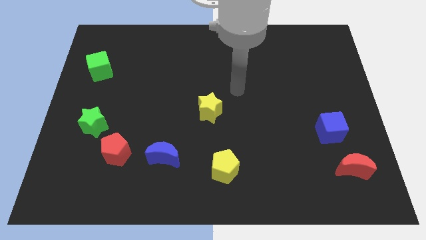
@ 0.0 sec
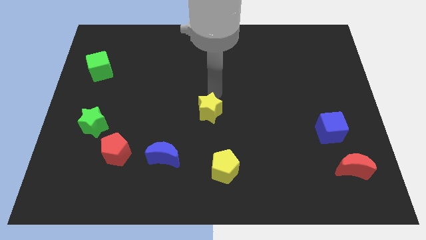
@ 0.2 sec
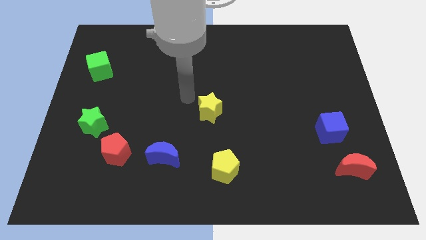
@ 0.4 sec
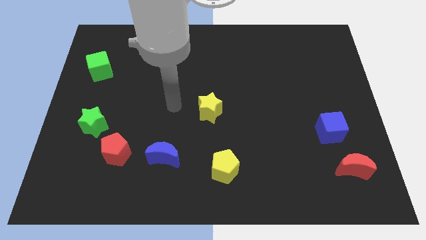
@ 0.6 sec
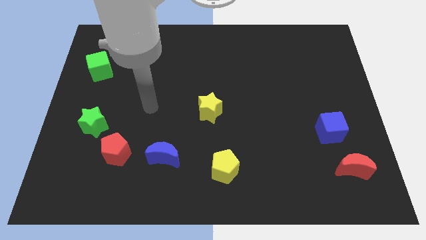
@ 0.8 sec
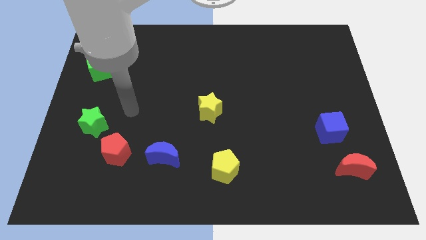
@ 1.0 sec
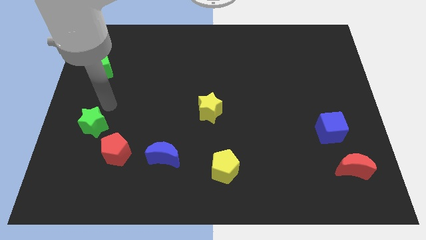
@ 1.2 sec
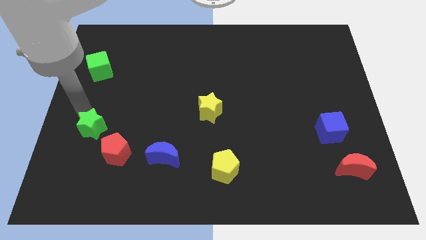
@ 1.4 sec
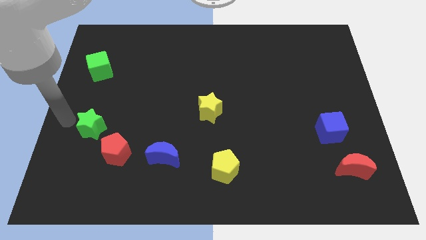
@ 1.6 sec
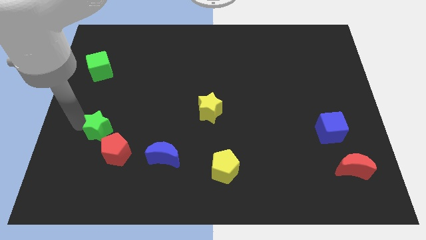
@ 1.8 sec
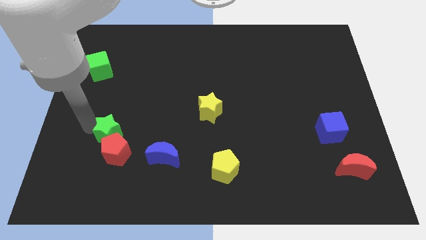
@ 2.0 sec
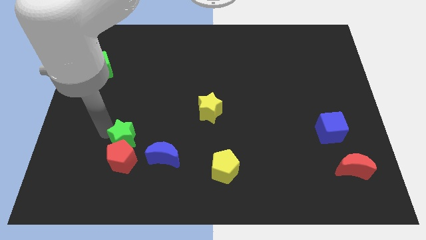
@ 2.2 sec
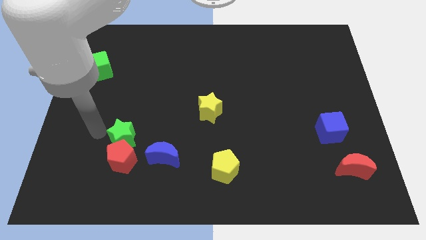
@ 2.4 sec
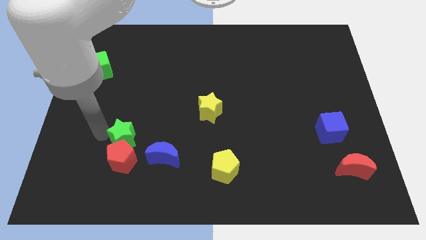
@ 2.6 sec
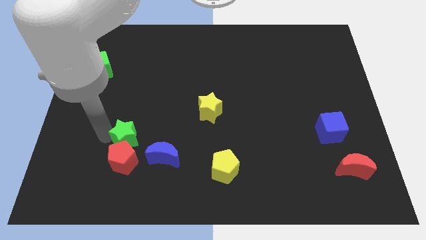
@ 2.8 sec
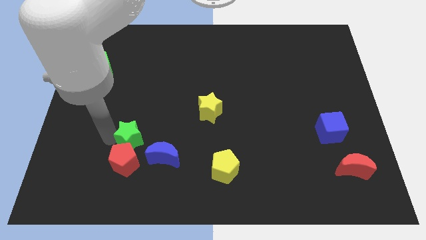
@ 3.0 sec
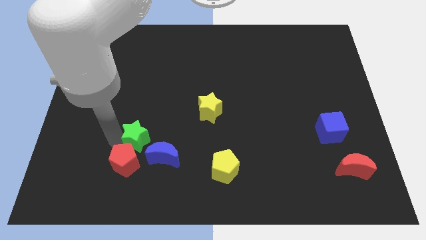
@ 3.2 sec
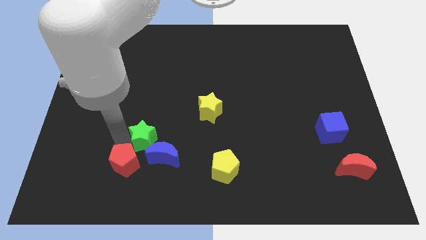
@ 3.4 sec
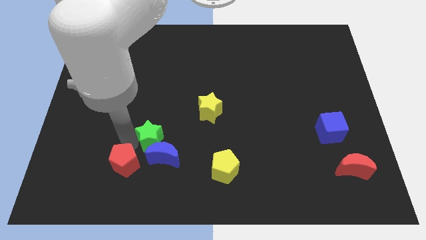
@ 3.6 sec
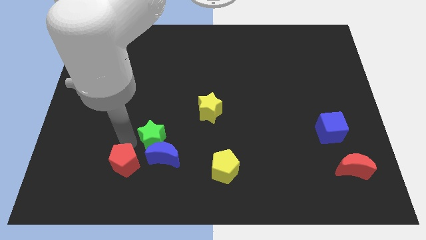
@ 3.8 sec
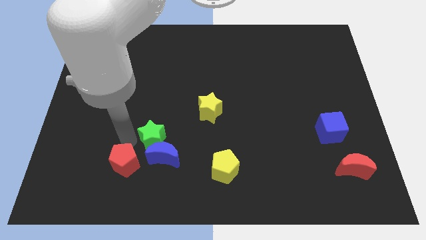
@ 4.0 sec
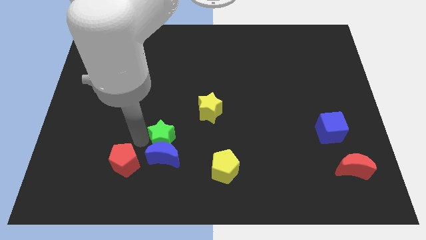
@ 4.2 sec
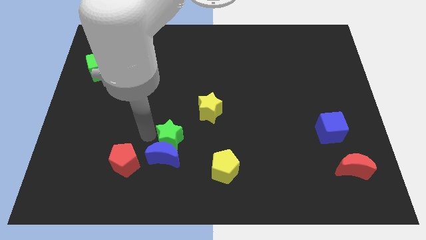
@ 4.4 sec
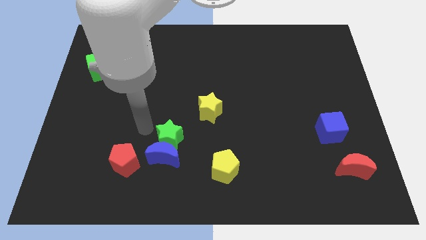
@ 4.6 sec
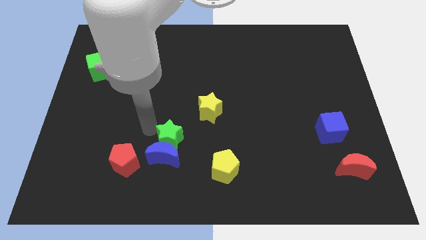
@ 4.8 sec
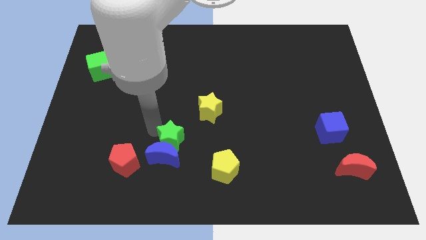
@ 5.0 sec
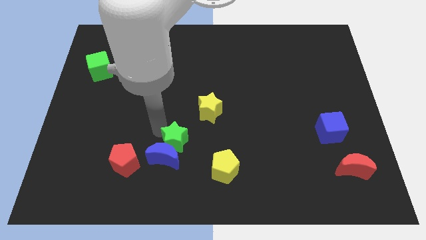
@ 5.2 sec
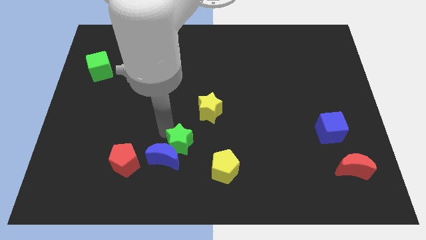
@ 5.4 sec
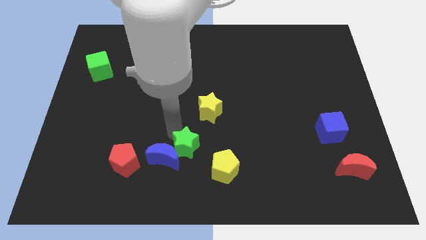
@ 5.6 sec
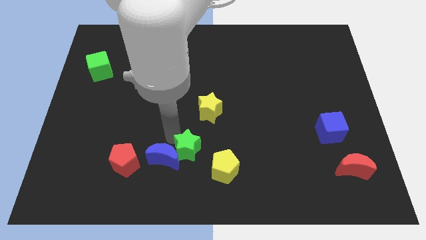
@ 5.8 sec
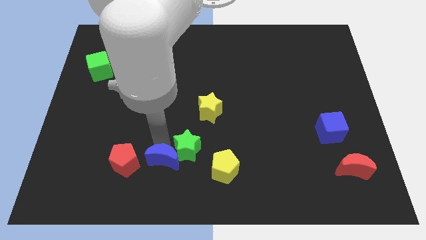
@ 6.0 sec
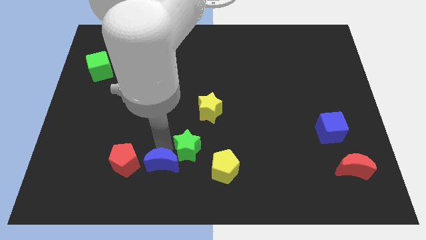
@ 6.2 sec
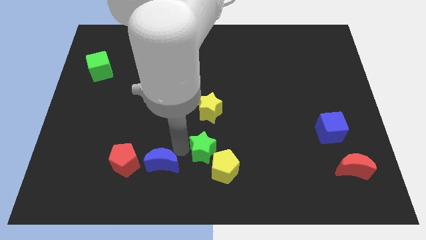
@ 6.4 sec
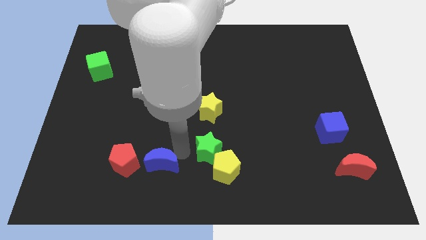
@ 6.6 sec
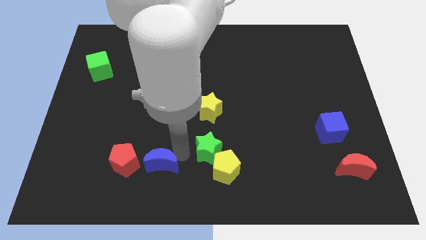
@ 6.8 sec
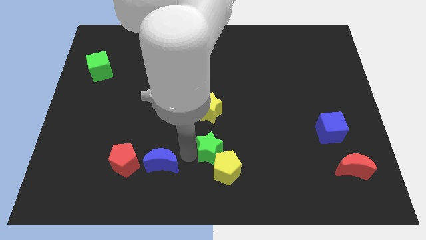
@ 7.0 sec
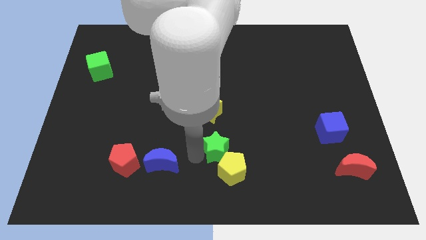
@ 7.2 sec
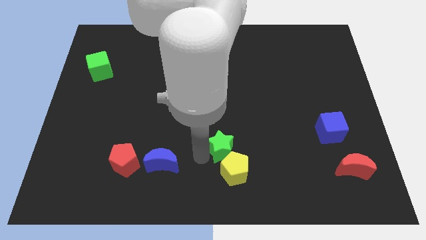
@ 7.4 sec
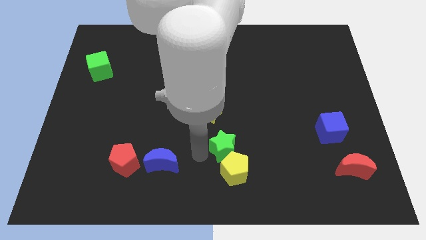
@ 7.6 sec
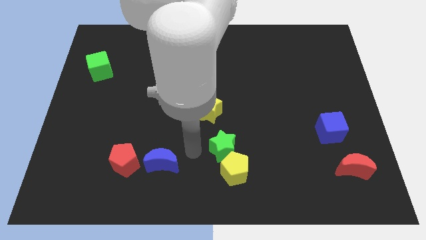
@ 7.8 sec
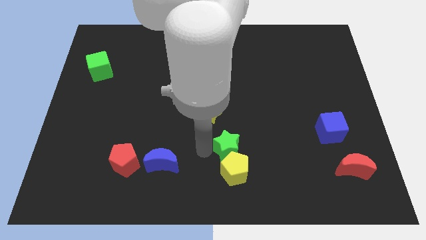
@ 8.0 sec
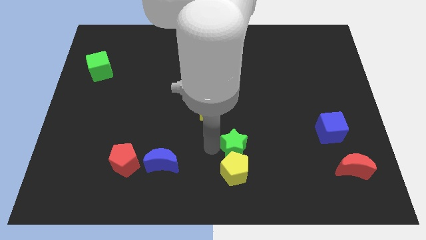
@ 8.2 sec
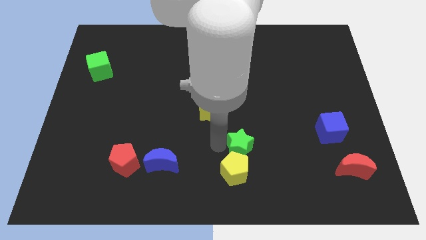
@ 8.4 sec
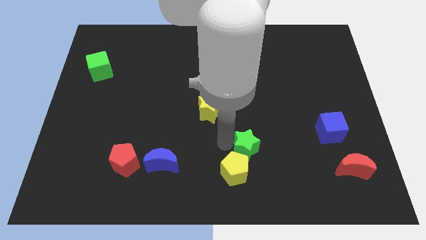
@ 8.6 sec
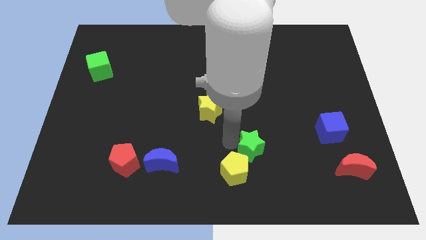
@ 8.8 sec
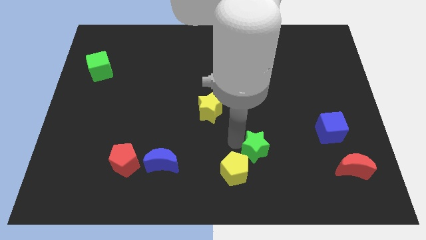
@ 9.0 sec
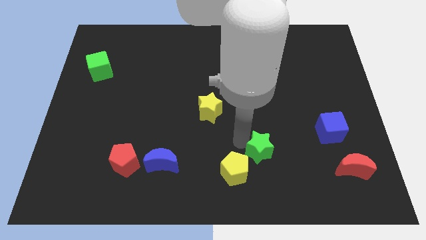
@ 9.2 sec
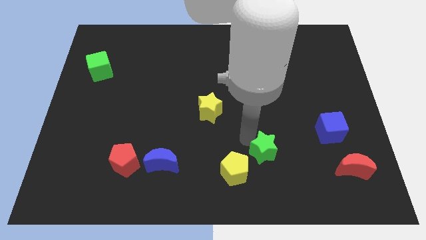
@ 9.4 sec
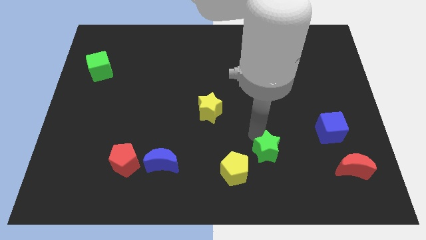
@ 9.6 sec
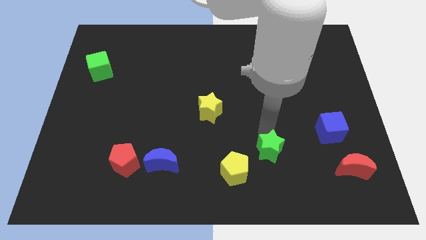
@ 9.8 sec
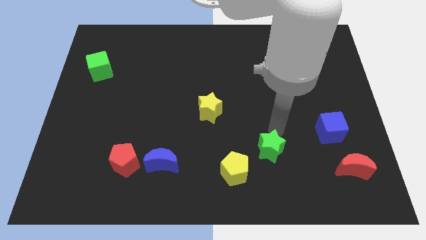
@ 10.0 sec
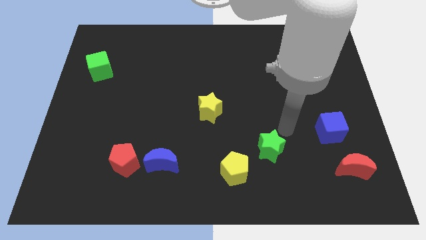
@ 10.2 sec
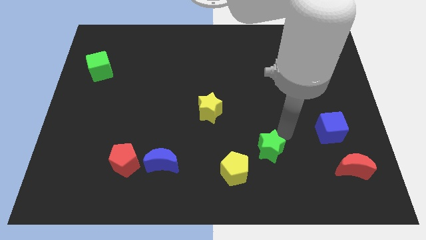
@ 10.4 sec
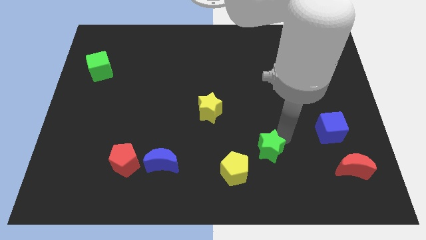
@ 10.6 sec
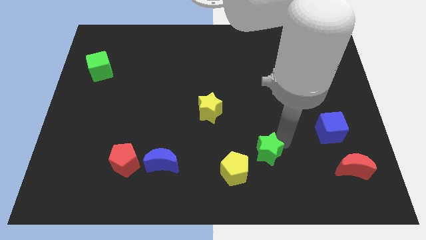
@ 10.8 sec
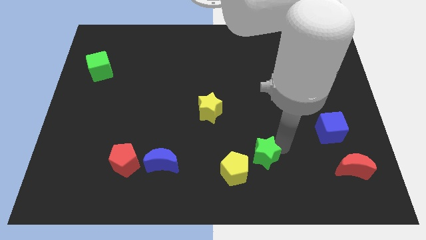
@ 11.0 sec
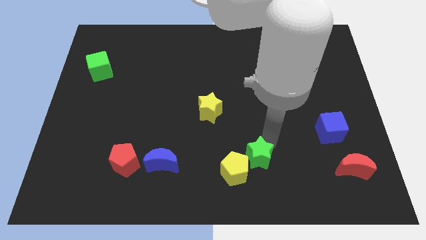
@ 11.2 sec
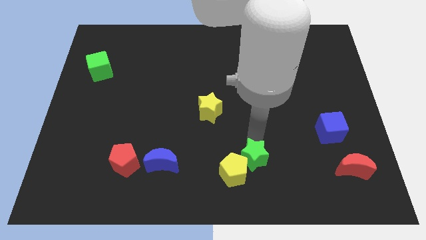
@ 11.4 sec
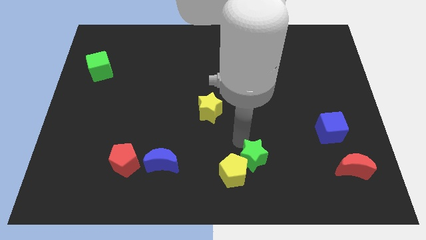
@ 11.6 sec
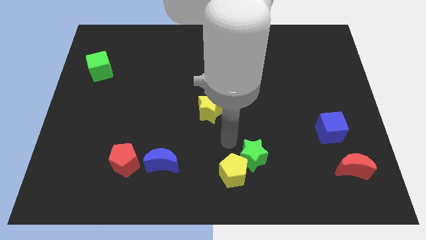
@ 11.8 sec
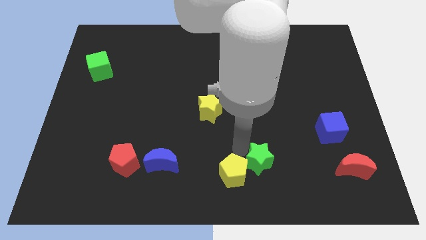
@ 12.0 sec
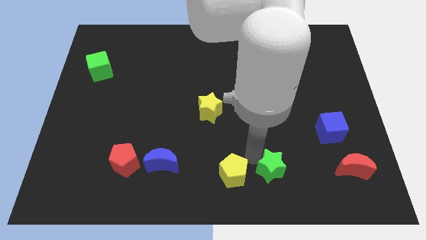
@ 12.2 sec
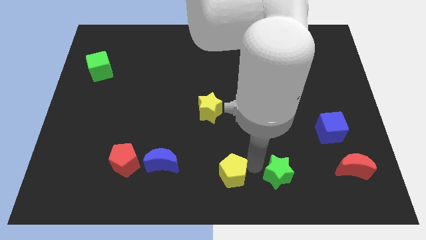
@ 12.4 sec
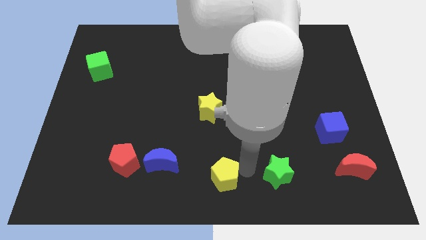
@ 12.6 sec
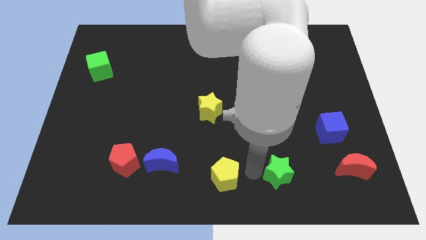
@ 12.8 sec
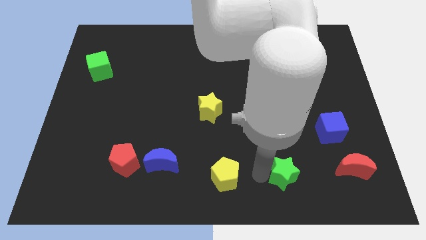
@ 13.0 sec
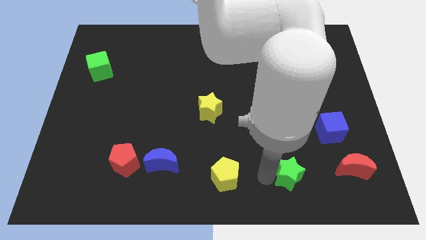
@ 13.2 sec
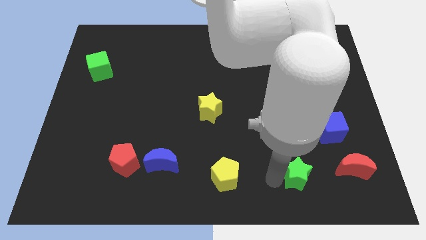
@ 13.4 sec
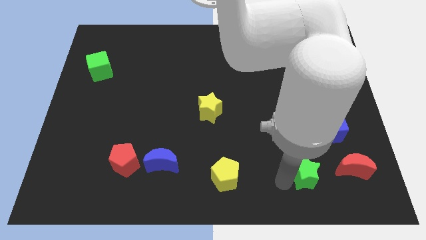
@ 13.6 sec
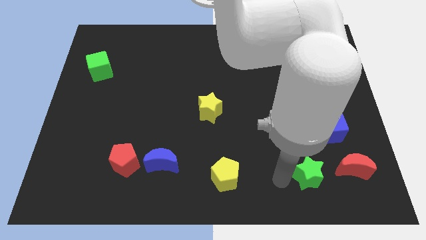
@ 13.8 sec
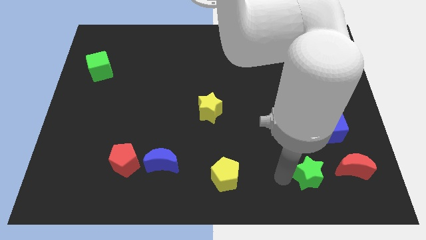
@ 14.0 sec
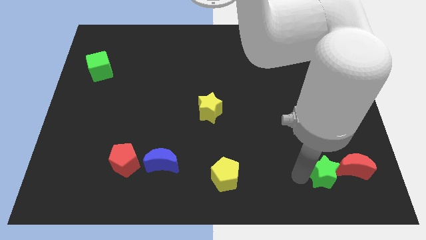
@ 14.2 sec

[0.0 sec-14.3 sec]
move the green star below the blue cube
